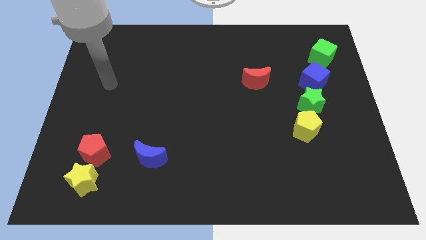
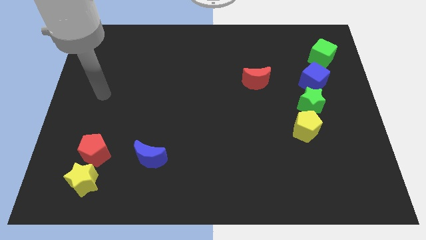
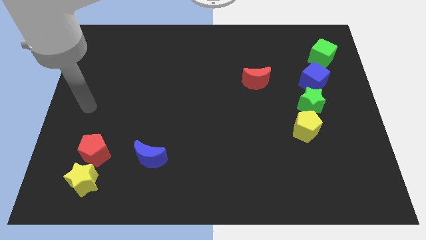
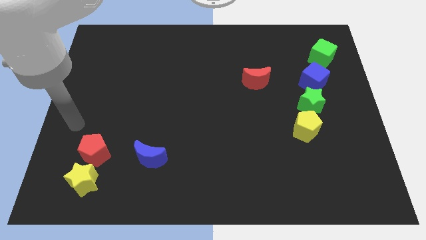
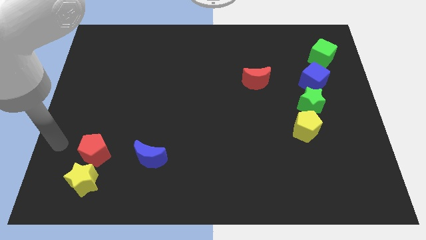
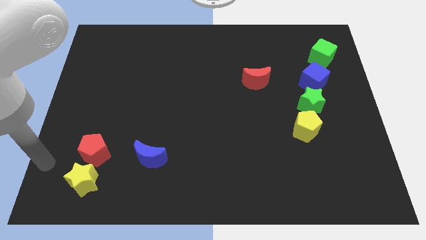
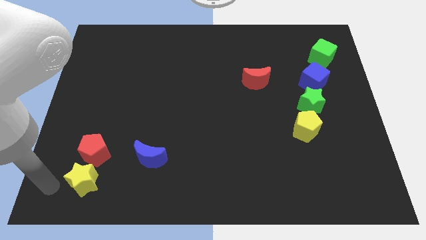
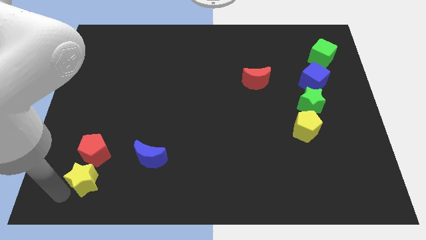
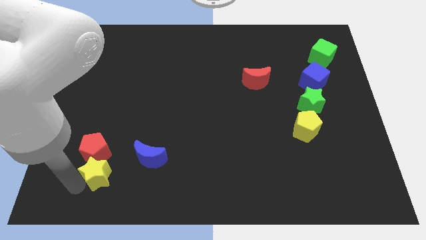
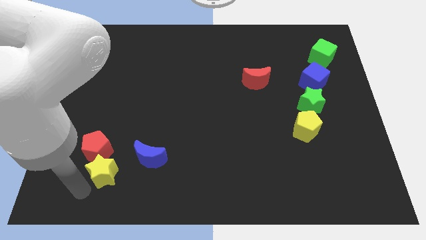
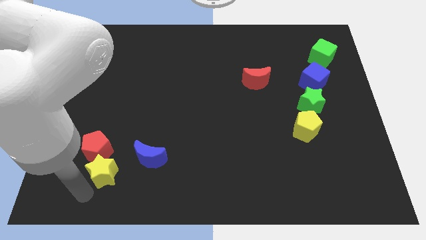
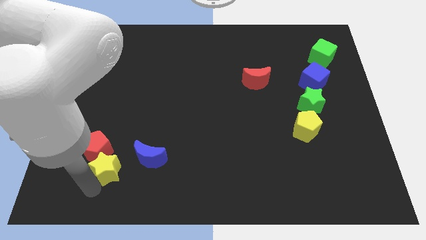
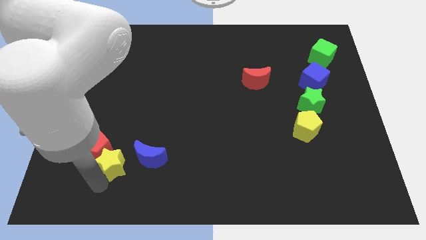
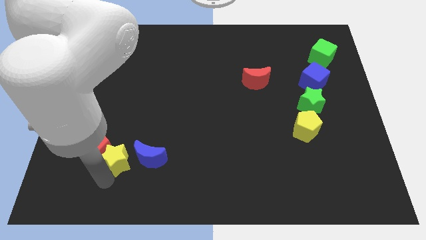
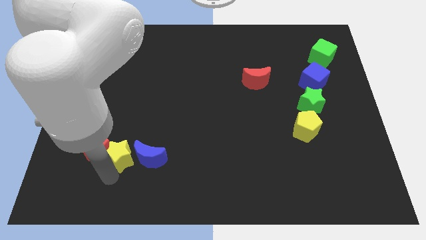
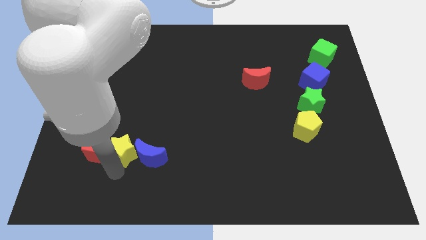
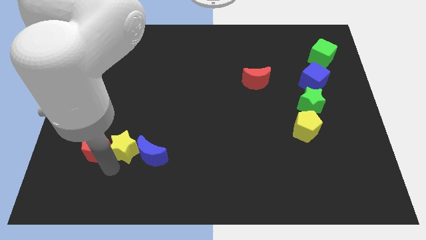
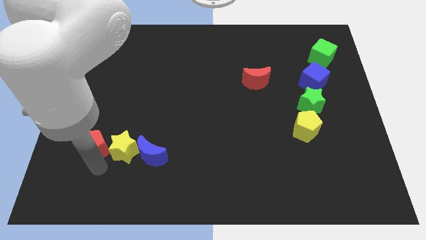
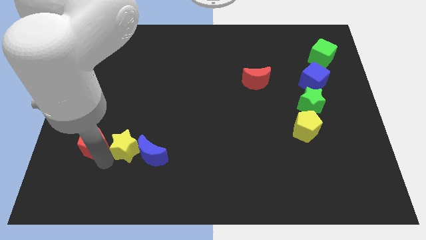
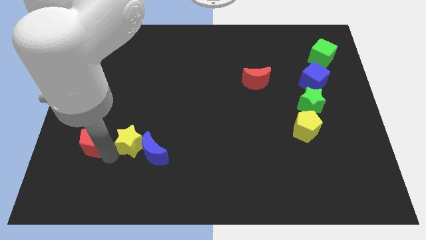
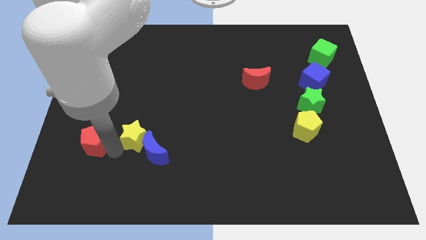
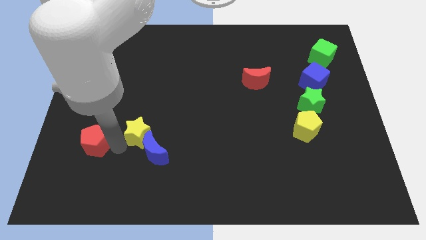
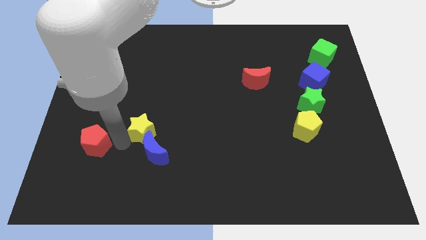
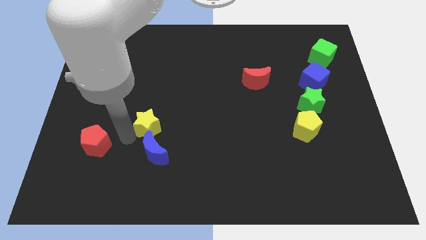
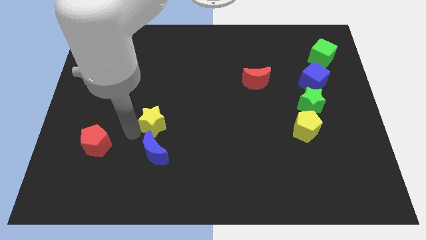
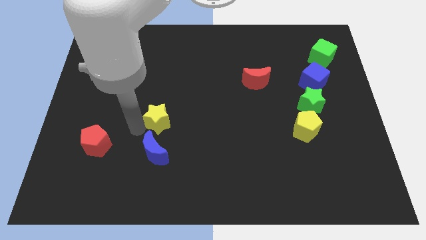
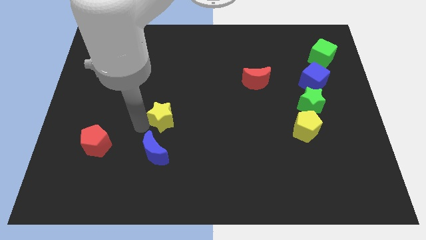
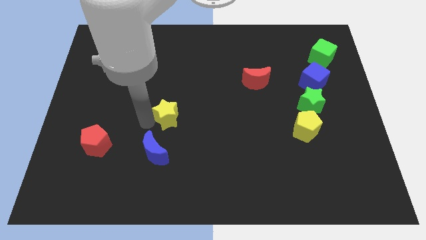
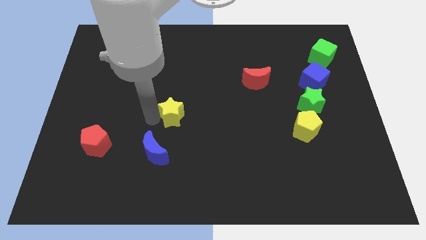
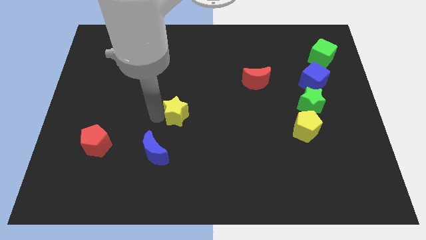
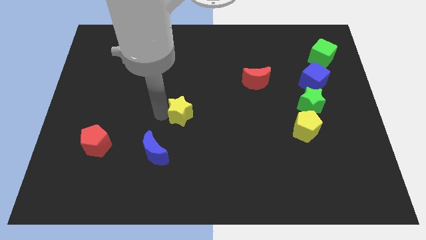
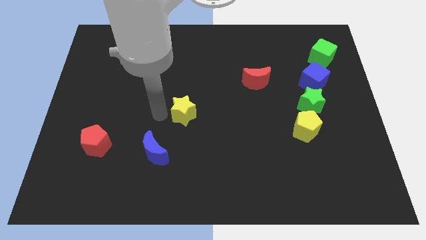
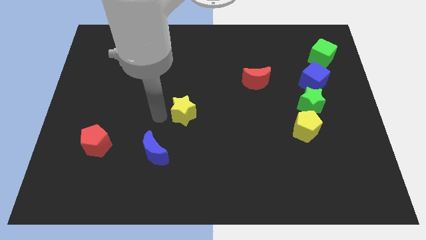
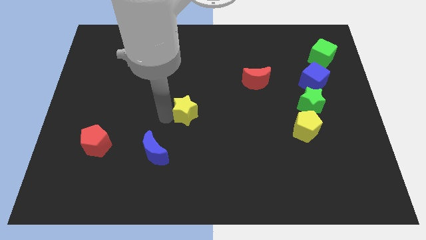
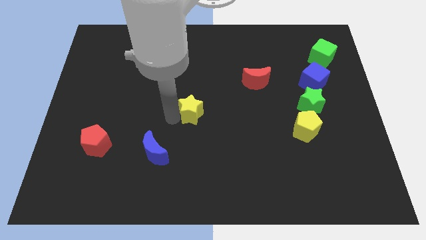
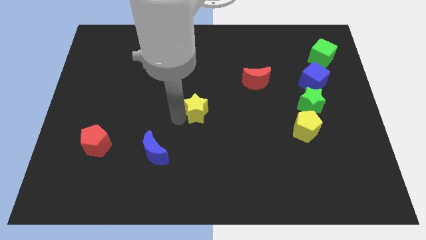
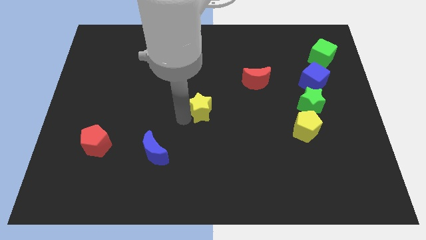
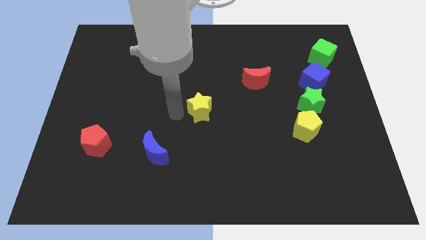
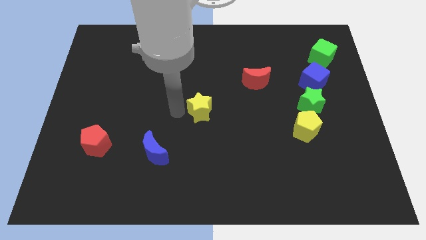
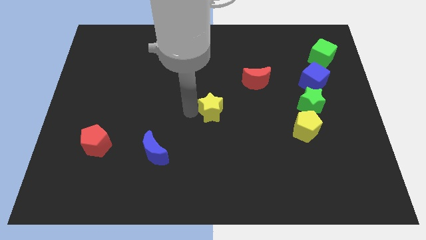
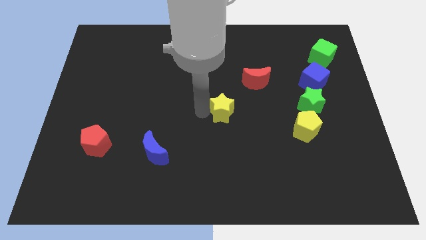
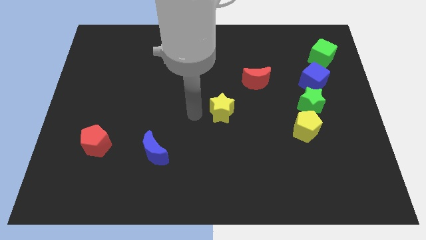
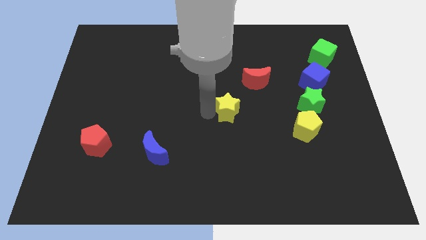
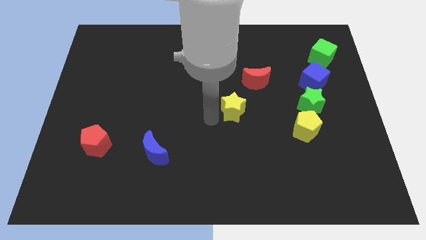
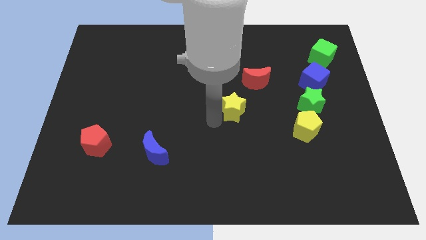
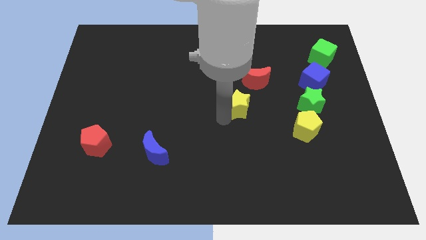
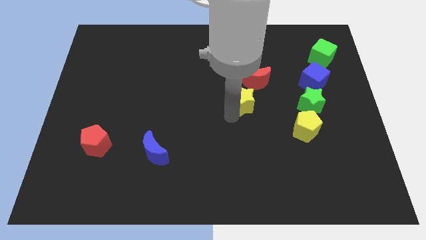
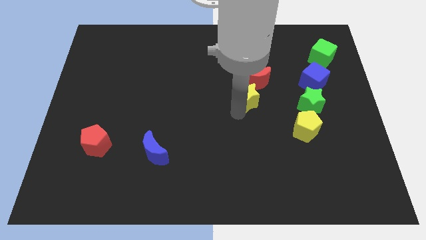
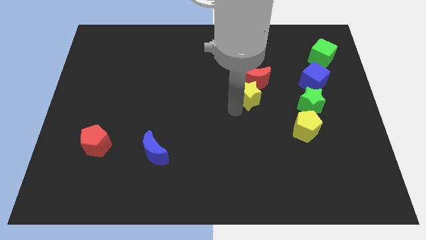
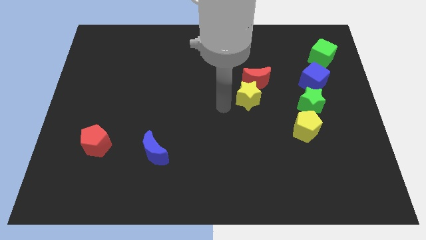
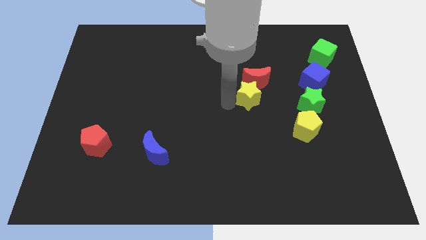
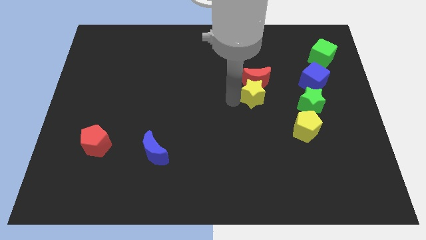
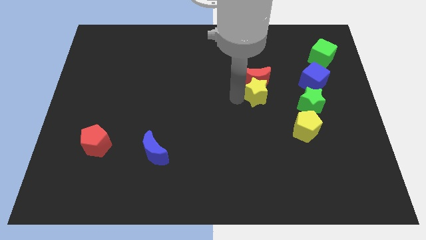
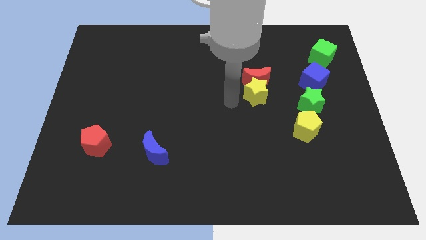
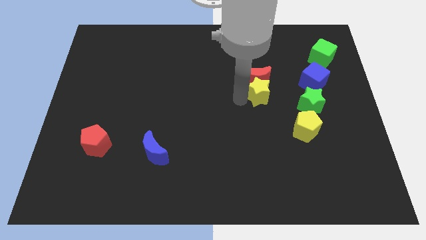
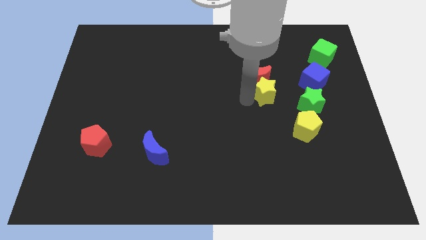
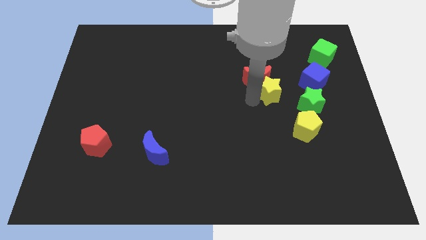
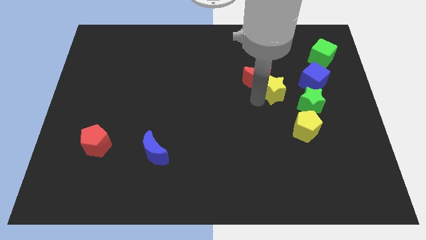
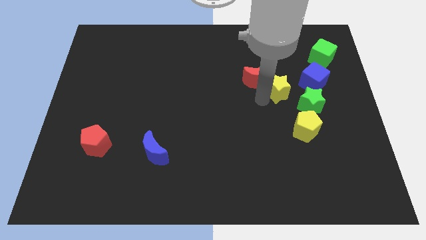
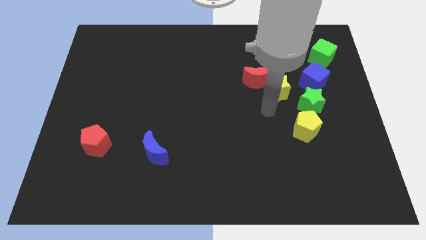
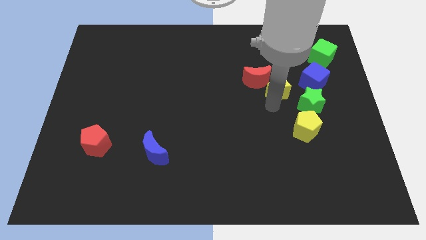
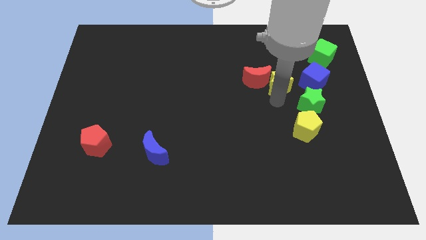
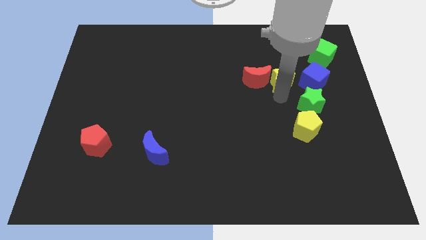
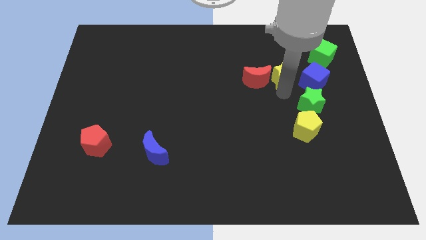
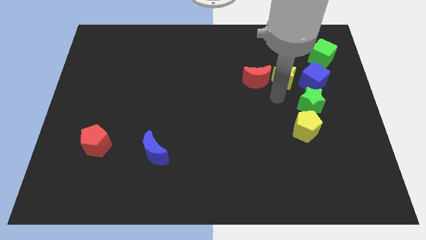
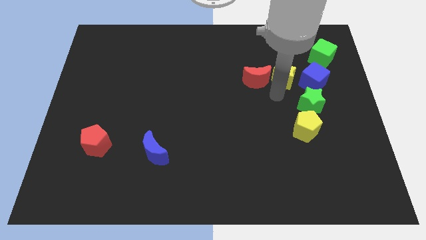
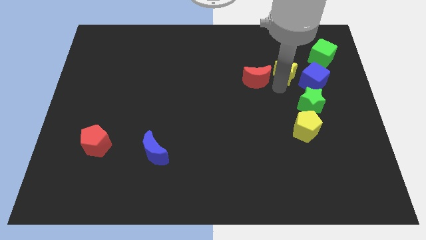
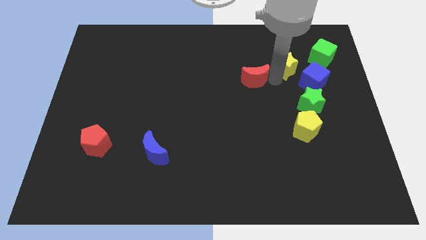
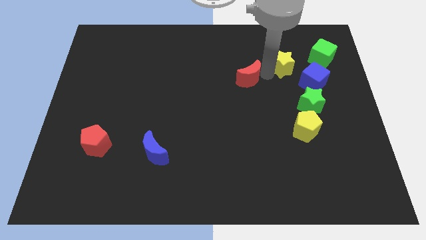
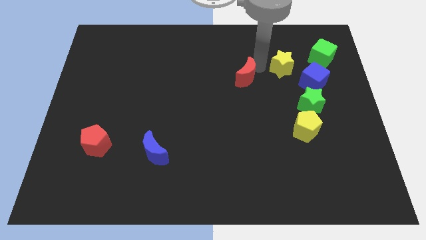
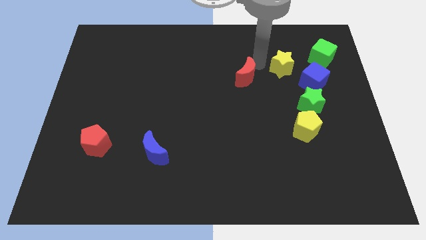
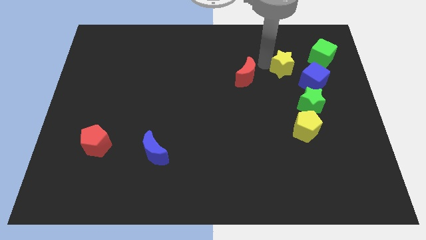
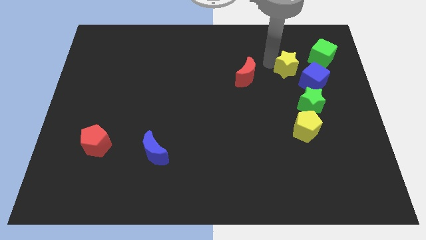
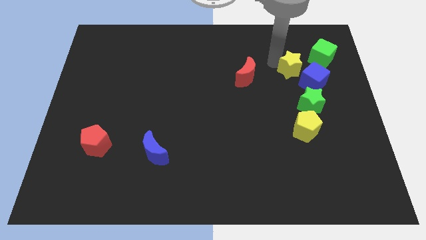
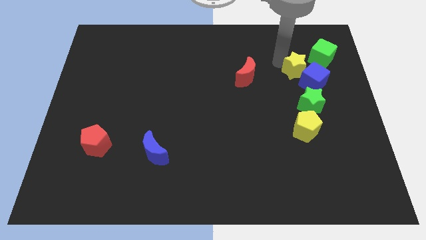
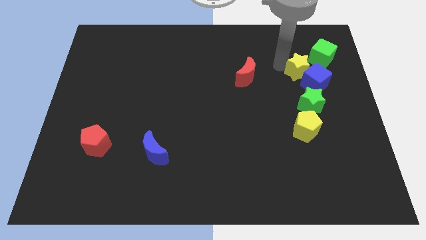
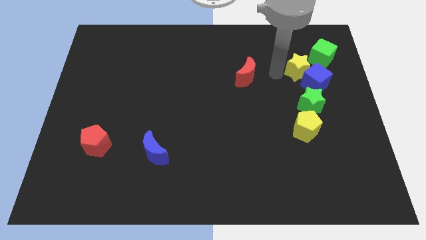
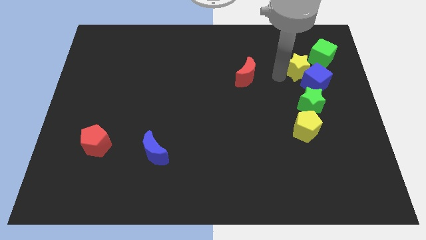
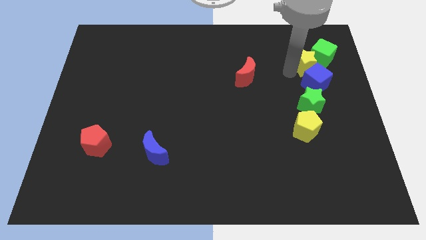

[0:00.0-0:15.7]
move the yellow star towards the green cube
